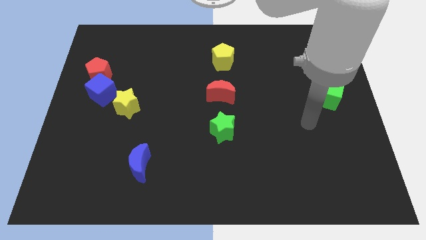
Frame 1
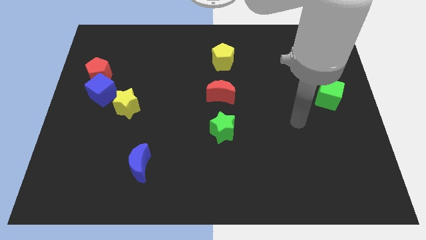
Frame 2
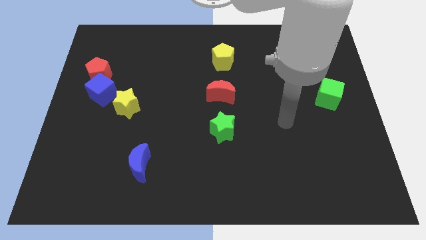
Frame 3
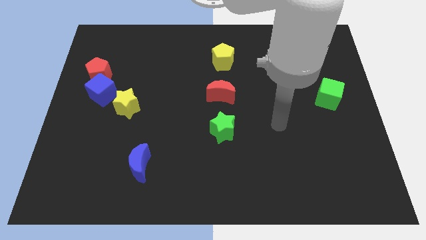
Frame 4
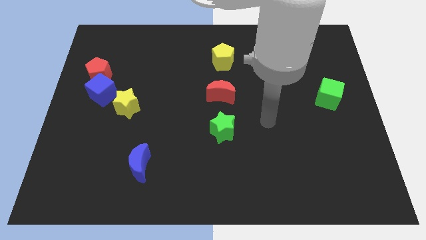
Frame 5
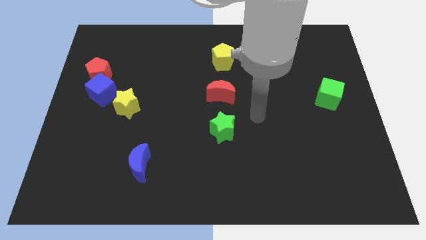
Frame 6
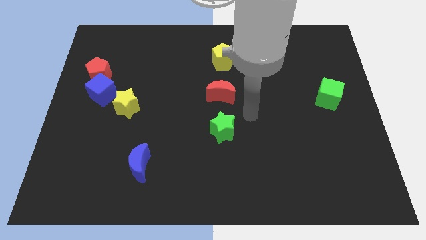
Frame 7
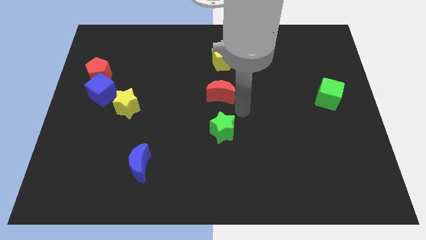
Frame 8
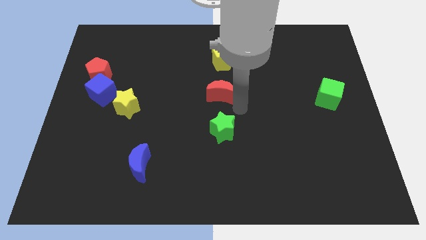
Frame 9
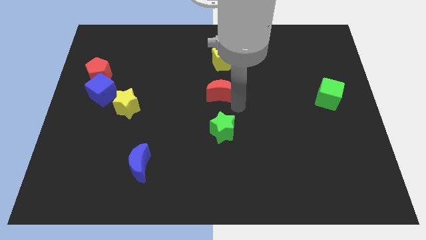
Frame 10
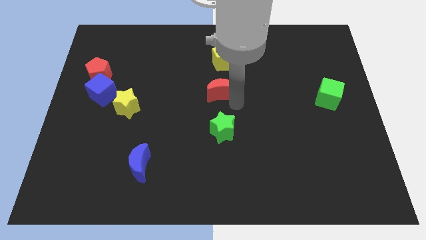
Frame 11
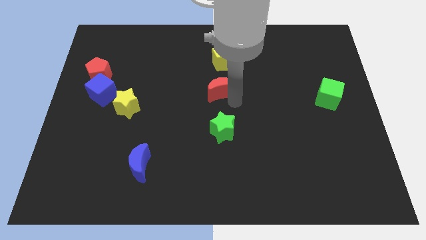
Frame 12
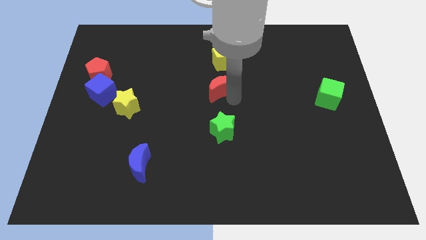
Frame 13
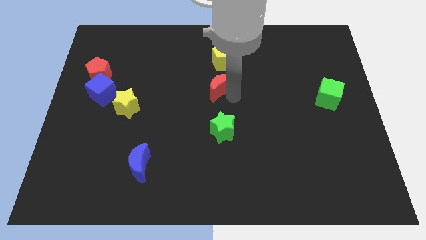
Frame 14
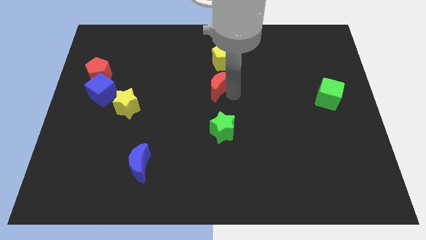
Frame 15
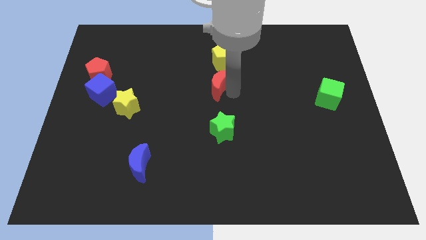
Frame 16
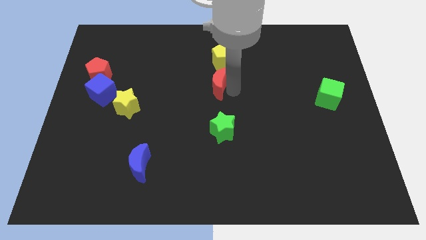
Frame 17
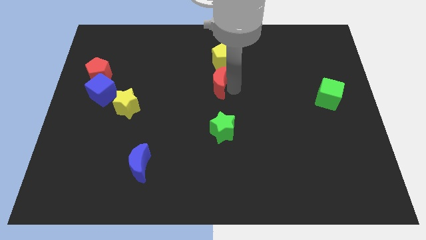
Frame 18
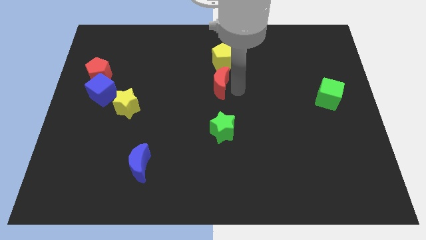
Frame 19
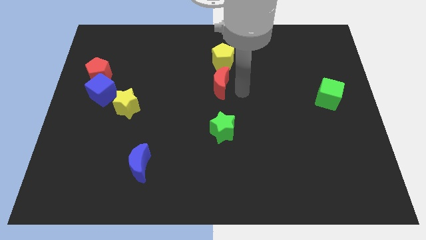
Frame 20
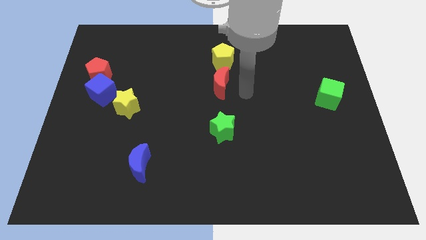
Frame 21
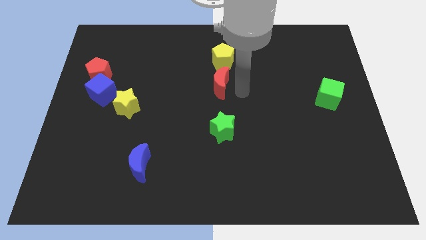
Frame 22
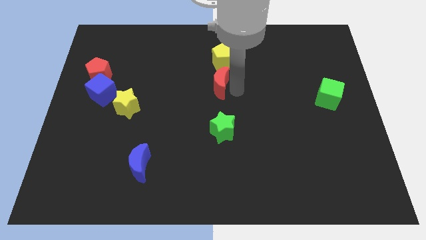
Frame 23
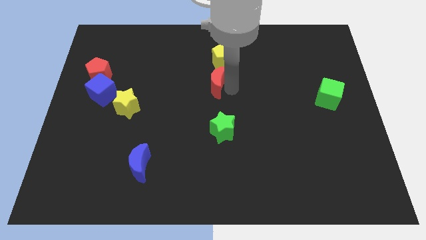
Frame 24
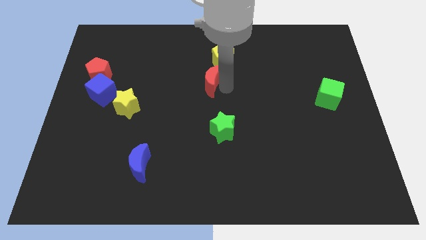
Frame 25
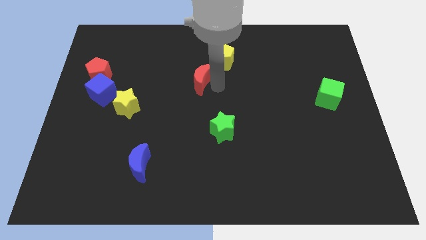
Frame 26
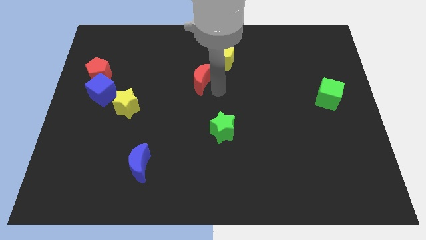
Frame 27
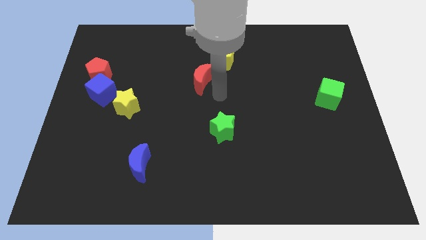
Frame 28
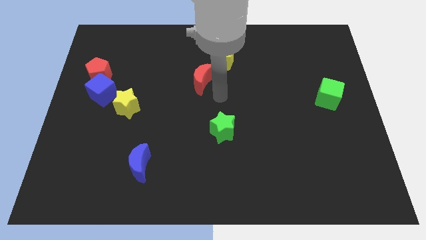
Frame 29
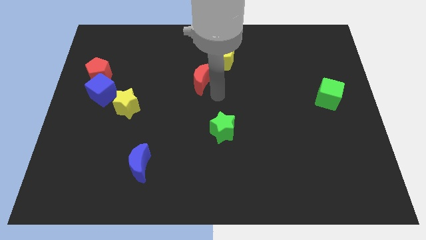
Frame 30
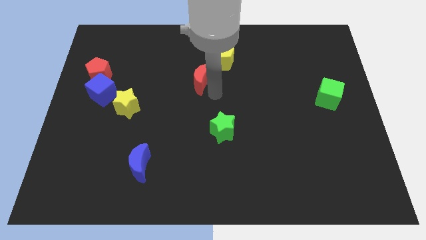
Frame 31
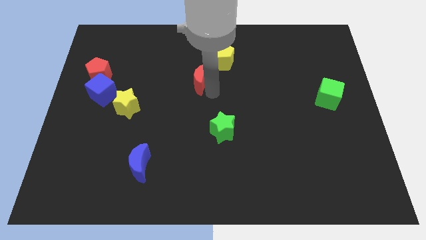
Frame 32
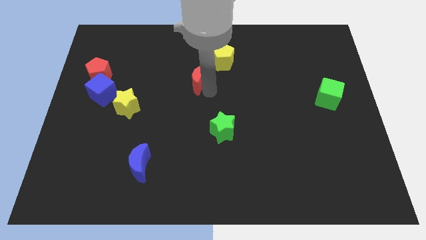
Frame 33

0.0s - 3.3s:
move the red moon diagonally up and left a little bit

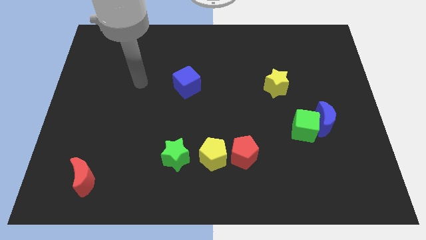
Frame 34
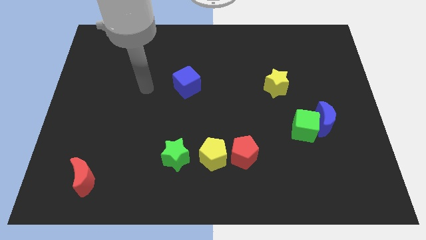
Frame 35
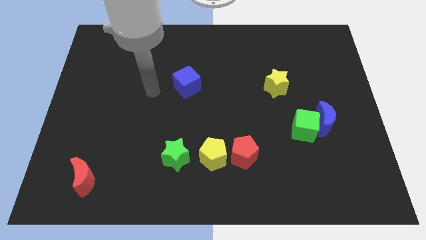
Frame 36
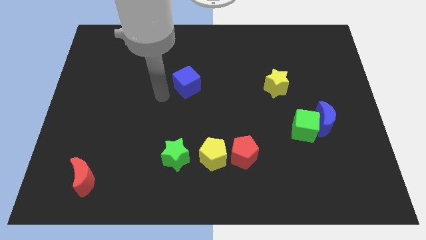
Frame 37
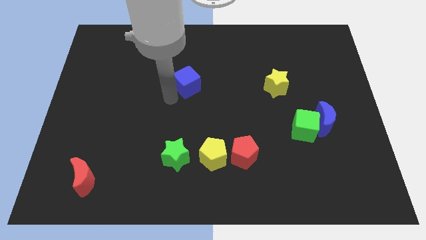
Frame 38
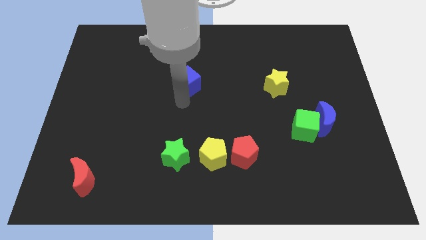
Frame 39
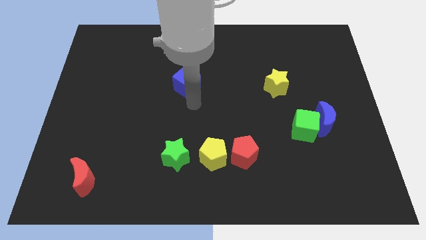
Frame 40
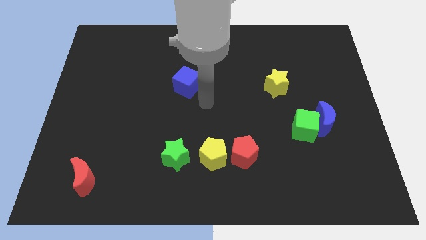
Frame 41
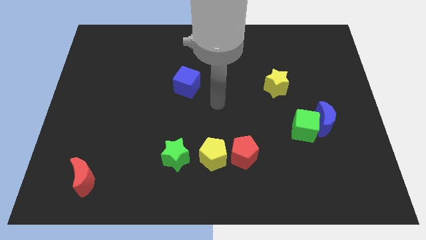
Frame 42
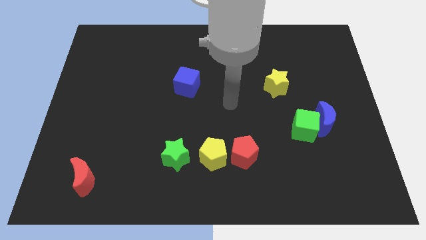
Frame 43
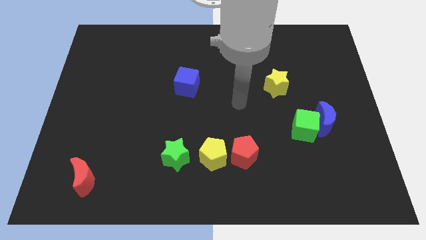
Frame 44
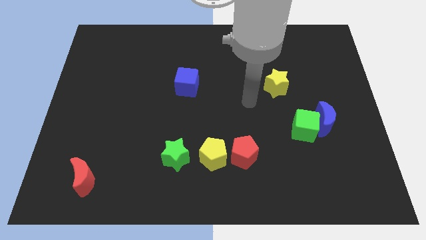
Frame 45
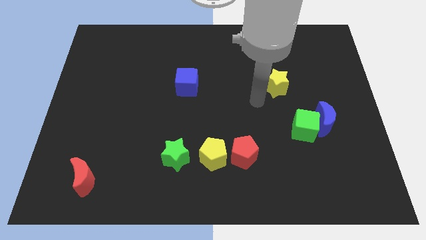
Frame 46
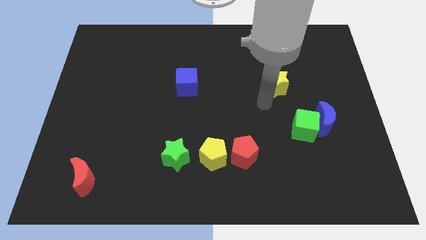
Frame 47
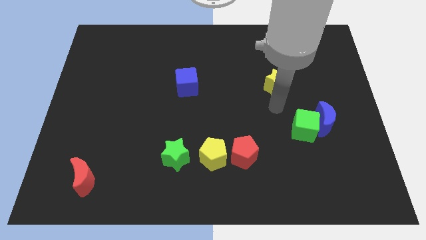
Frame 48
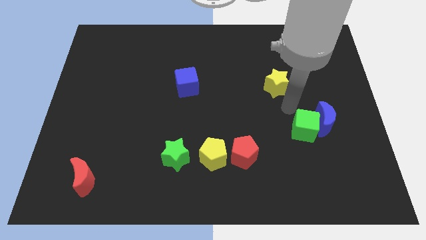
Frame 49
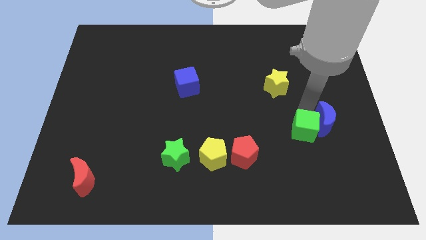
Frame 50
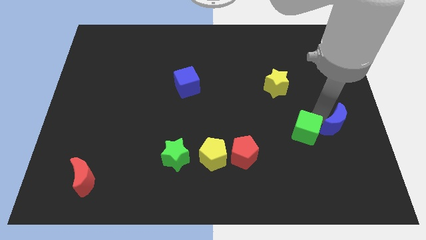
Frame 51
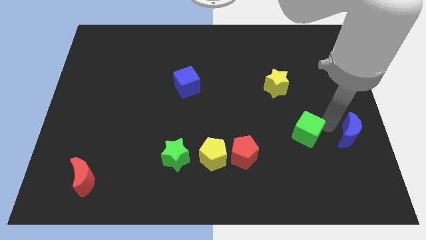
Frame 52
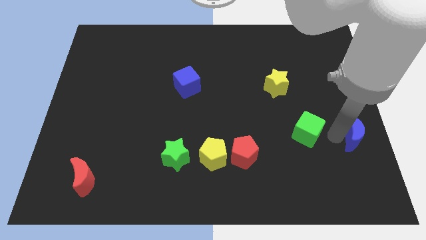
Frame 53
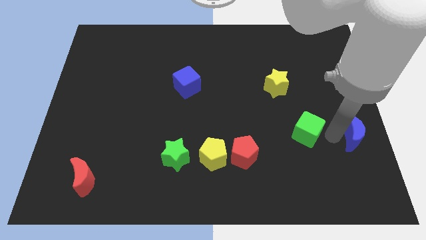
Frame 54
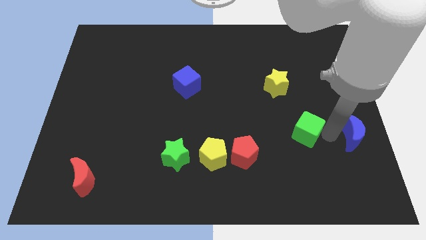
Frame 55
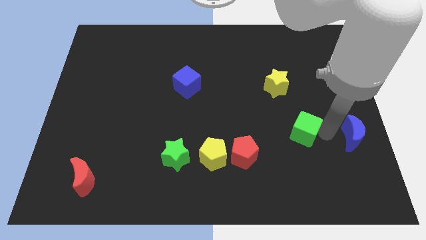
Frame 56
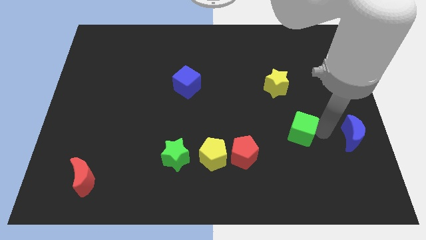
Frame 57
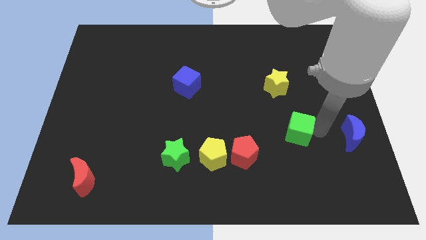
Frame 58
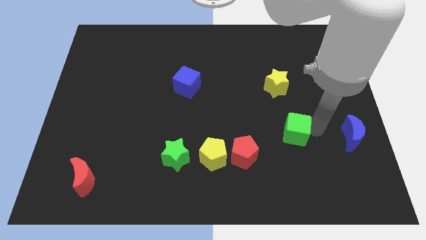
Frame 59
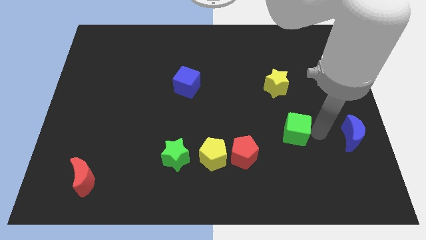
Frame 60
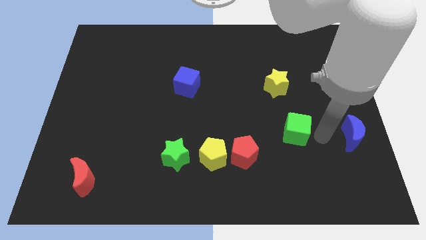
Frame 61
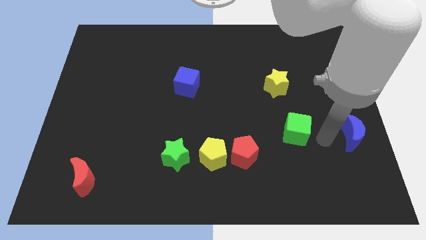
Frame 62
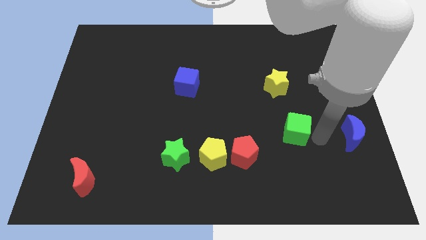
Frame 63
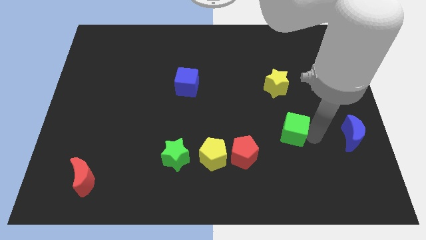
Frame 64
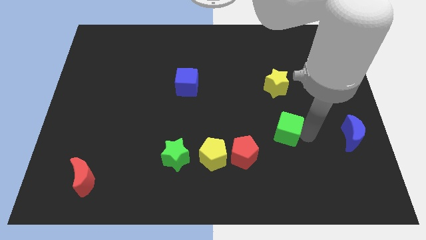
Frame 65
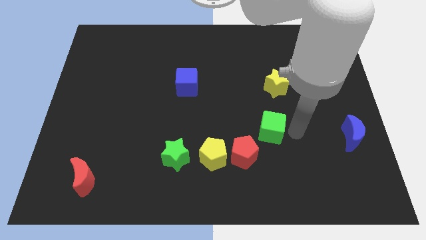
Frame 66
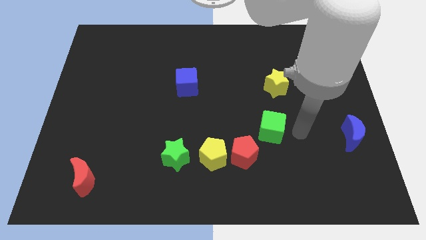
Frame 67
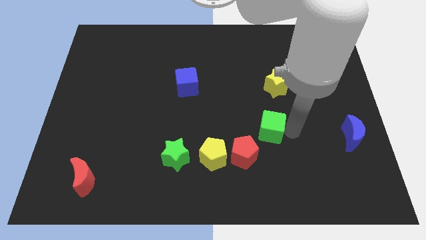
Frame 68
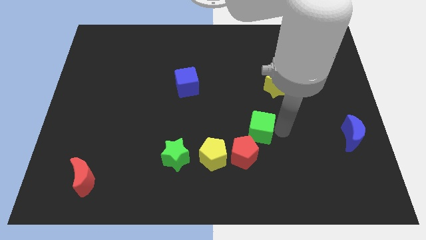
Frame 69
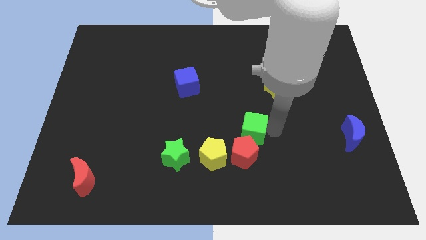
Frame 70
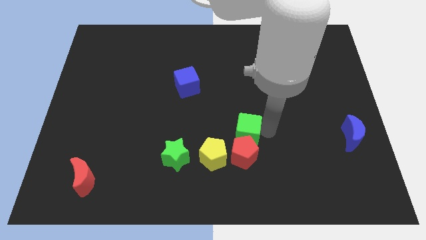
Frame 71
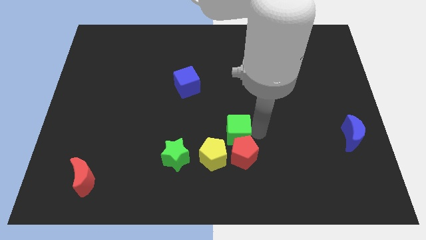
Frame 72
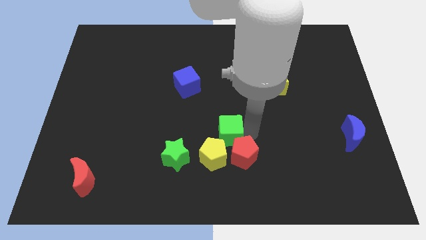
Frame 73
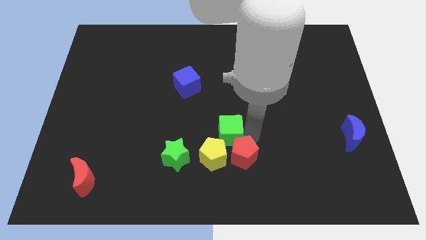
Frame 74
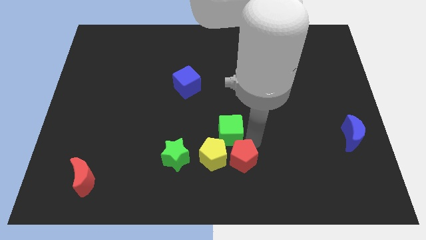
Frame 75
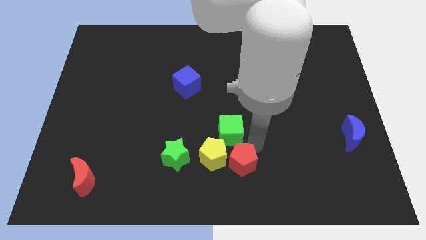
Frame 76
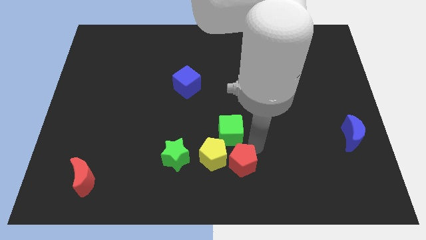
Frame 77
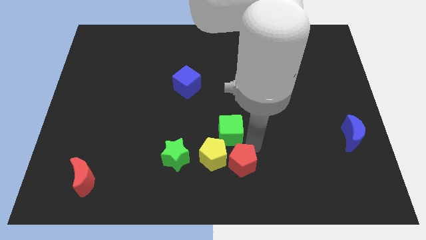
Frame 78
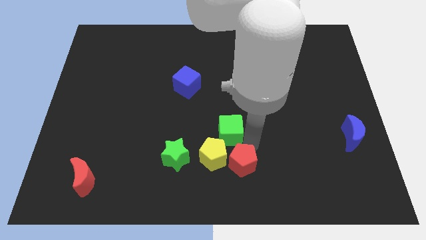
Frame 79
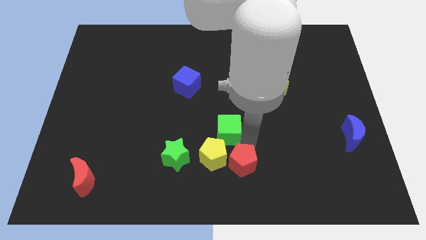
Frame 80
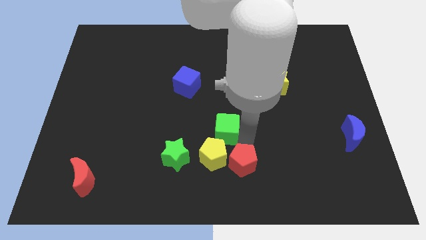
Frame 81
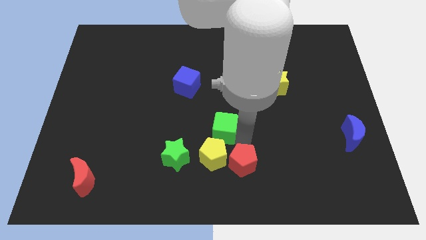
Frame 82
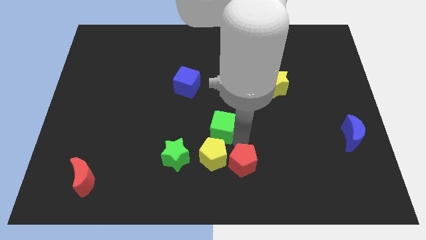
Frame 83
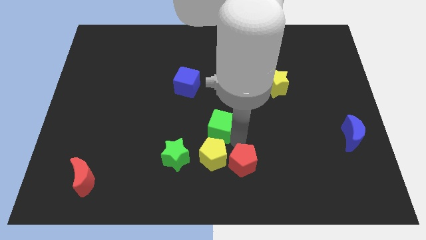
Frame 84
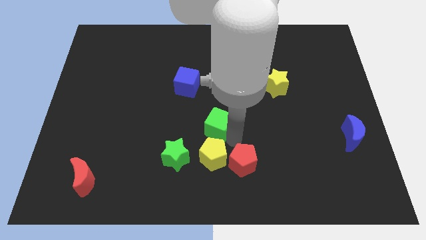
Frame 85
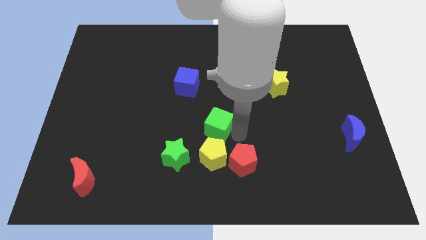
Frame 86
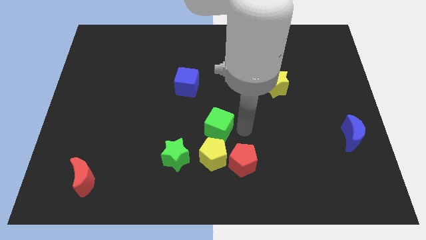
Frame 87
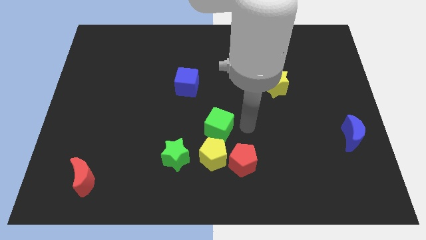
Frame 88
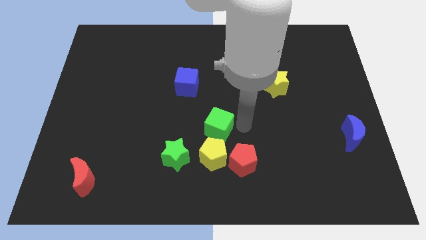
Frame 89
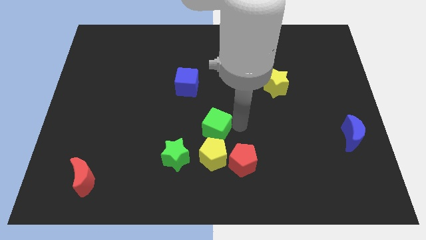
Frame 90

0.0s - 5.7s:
slide the green cube left
